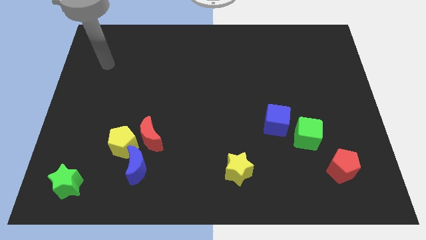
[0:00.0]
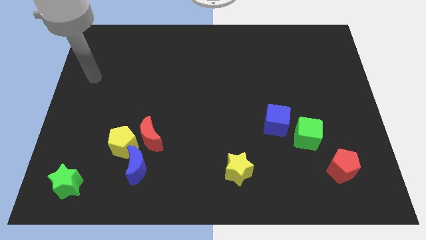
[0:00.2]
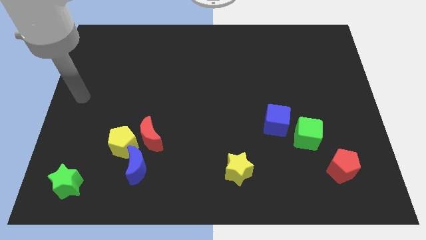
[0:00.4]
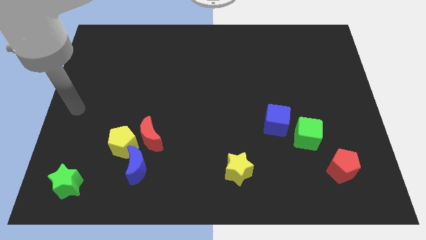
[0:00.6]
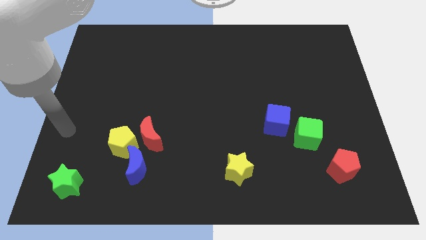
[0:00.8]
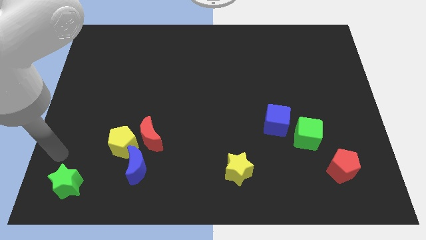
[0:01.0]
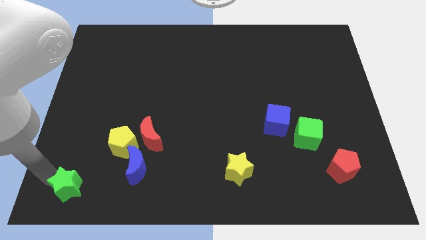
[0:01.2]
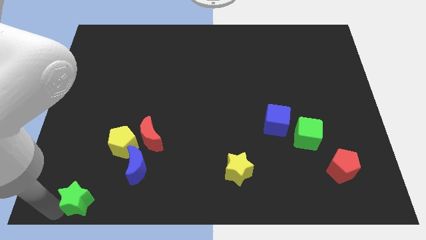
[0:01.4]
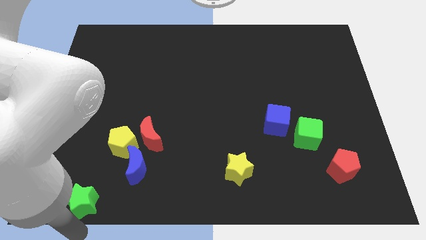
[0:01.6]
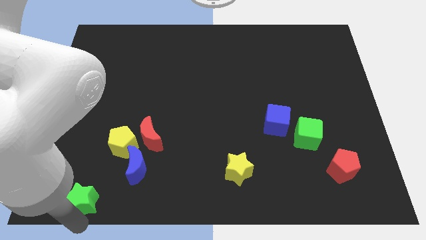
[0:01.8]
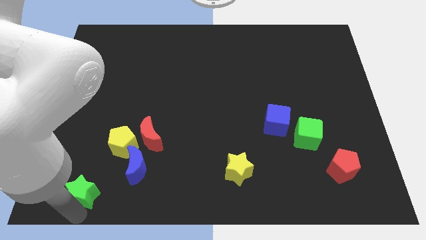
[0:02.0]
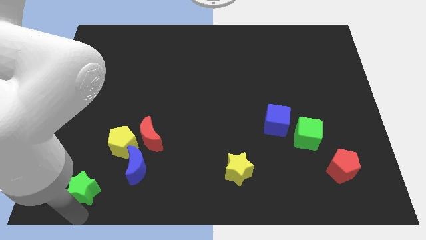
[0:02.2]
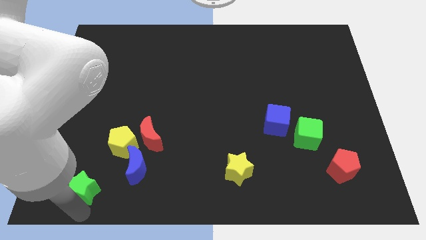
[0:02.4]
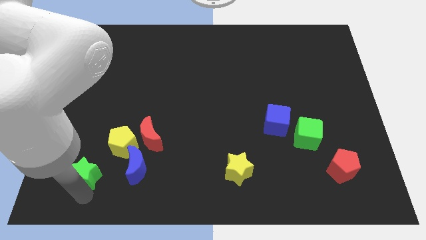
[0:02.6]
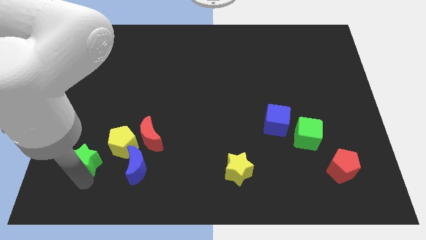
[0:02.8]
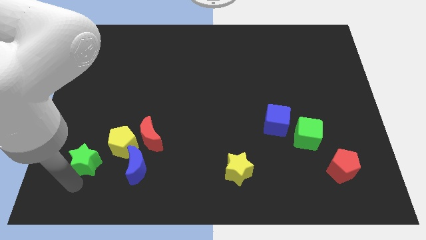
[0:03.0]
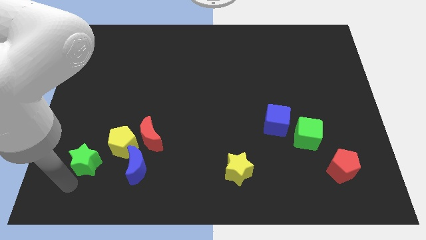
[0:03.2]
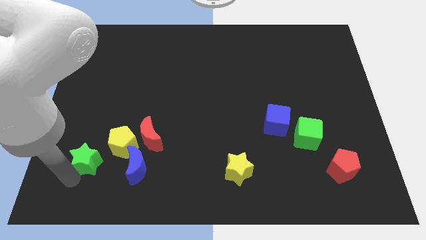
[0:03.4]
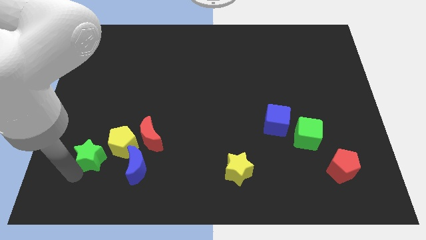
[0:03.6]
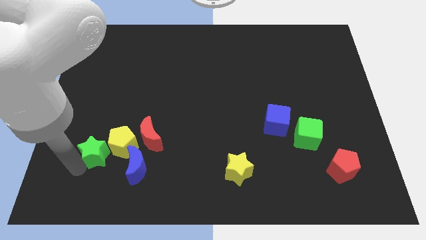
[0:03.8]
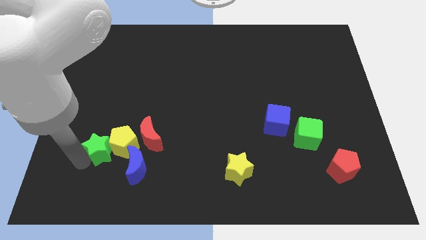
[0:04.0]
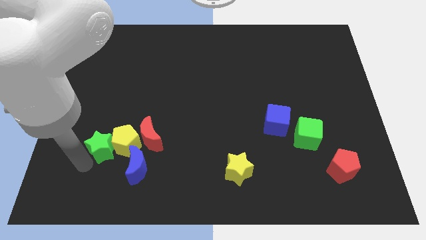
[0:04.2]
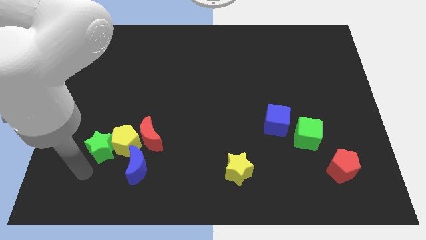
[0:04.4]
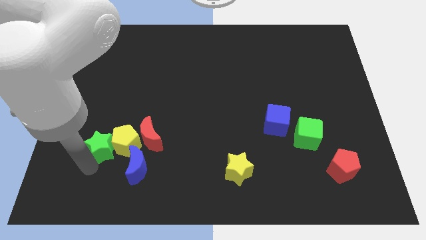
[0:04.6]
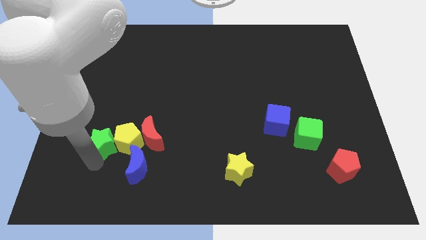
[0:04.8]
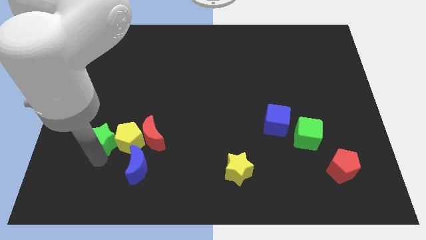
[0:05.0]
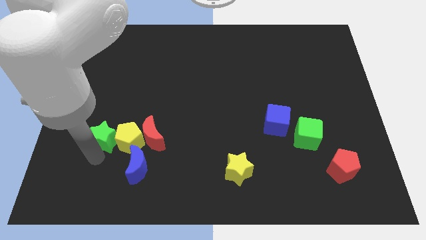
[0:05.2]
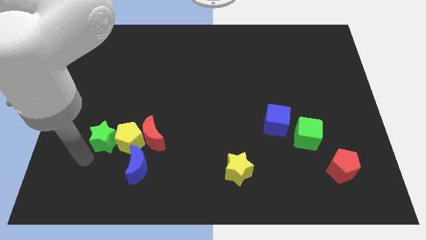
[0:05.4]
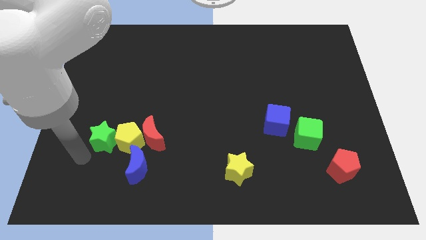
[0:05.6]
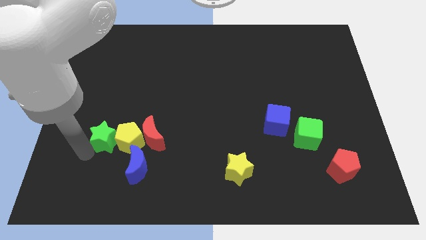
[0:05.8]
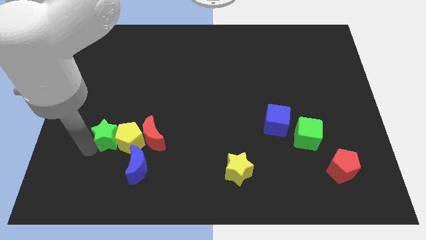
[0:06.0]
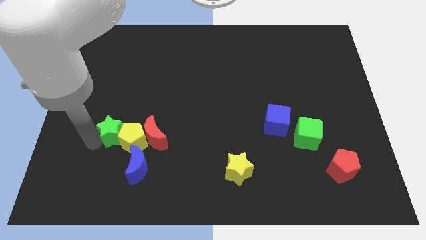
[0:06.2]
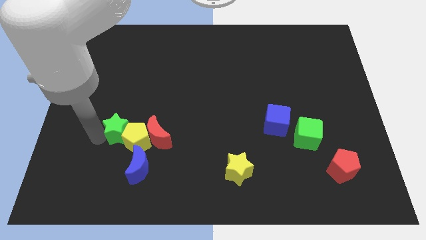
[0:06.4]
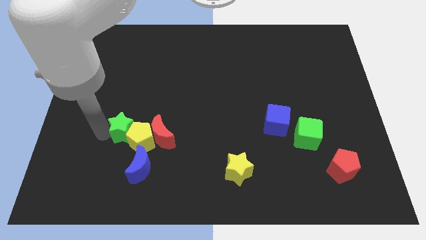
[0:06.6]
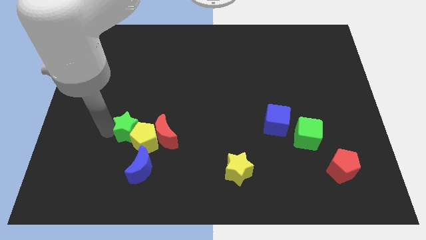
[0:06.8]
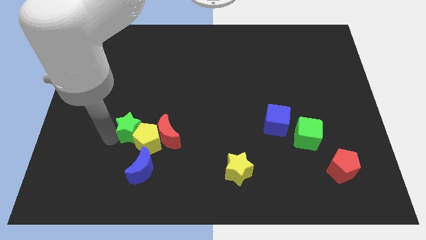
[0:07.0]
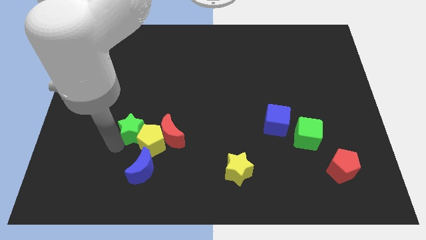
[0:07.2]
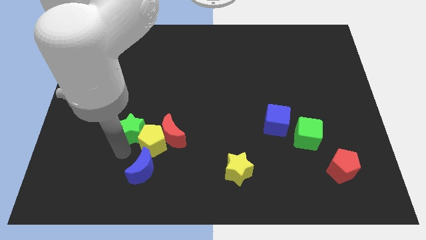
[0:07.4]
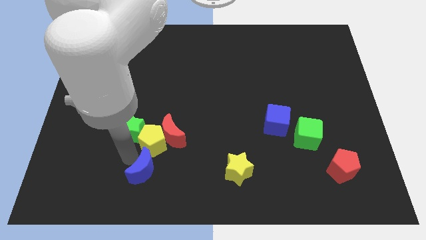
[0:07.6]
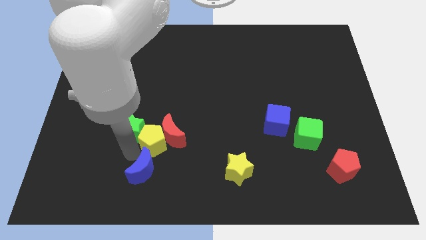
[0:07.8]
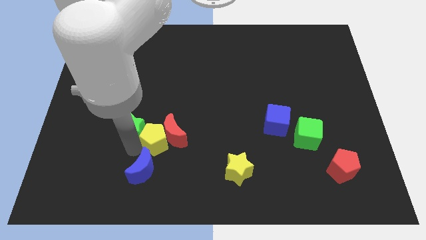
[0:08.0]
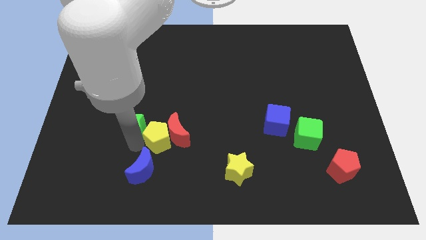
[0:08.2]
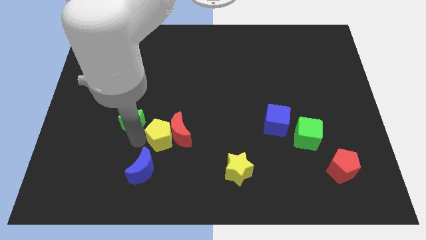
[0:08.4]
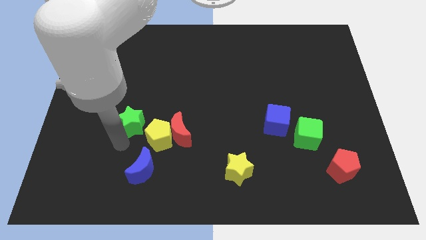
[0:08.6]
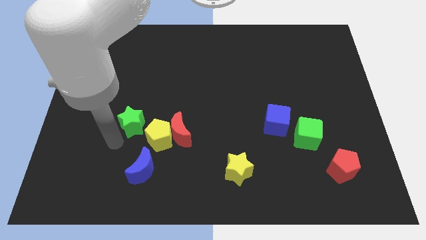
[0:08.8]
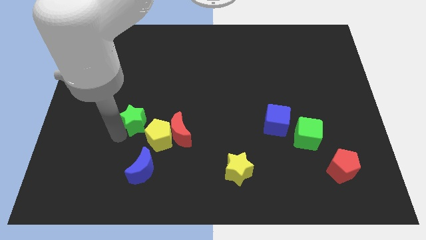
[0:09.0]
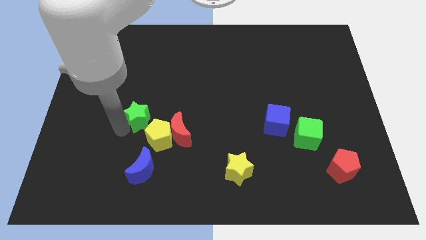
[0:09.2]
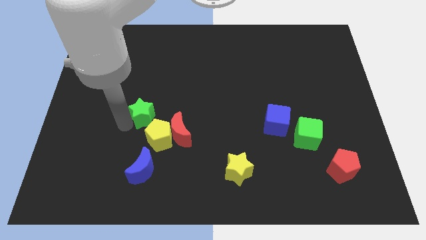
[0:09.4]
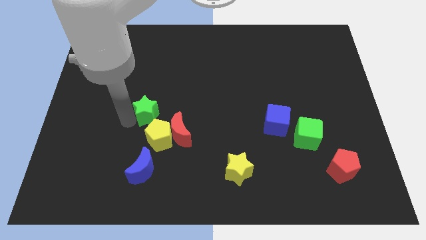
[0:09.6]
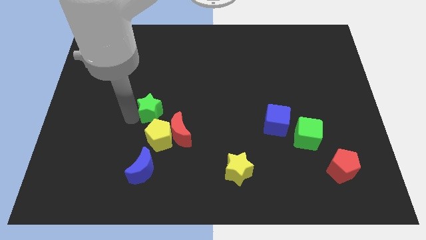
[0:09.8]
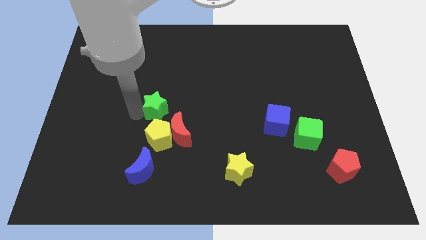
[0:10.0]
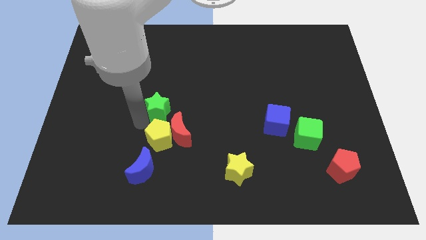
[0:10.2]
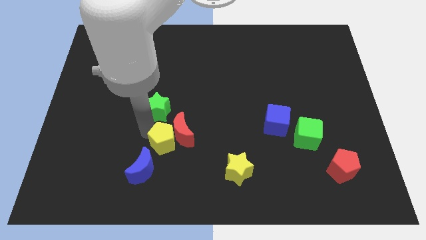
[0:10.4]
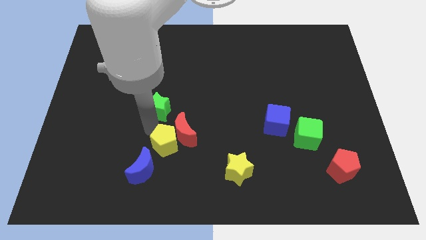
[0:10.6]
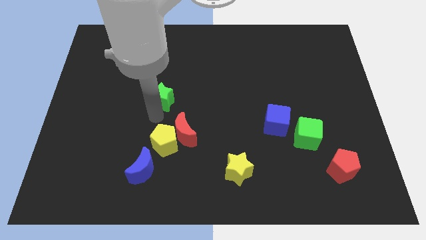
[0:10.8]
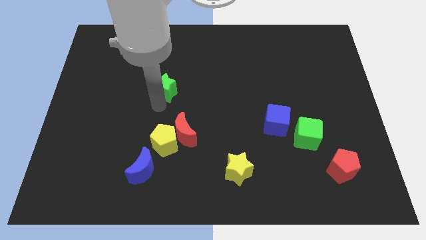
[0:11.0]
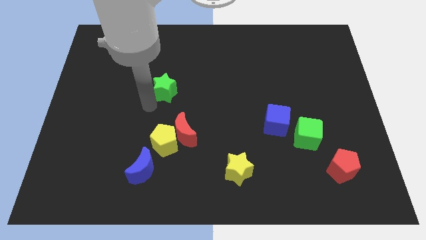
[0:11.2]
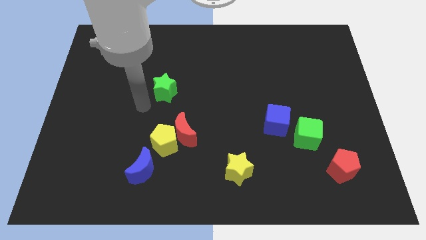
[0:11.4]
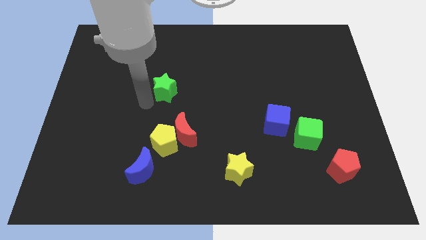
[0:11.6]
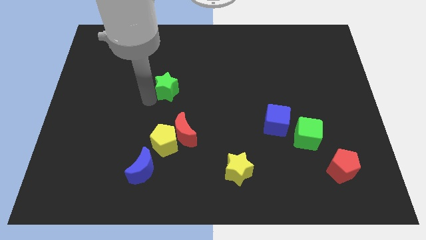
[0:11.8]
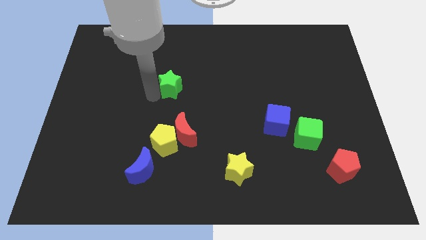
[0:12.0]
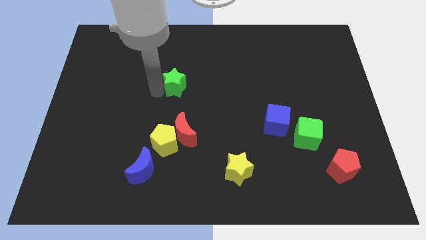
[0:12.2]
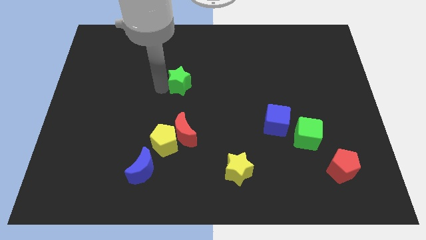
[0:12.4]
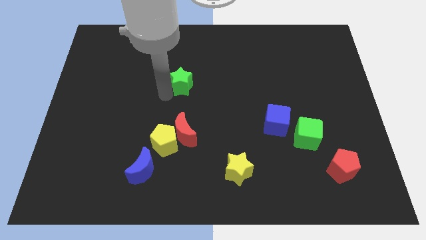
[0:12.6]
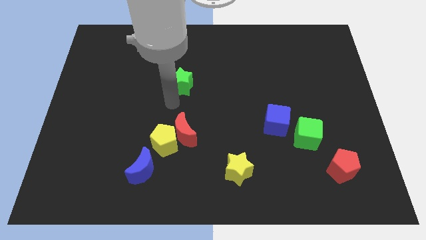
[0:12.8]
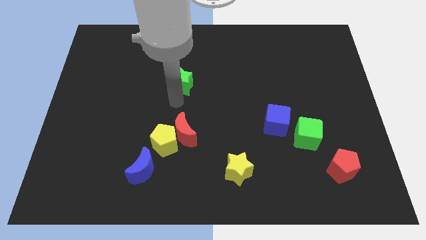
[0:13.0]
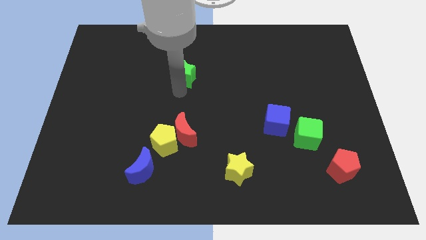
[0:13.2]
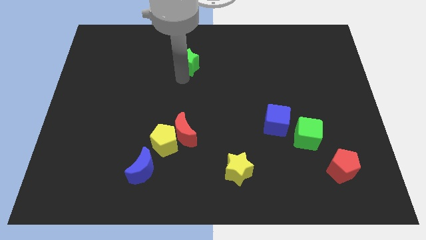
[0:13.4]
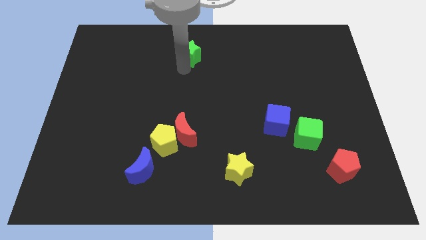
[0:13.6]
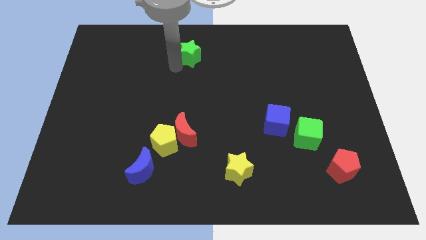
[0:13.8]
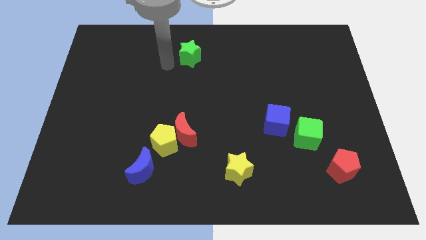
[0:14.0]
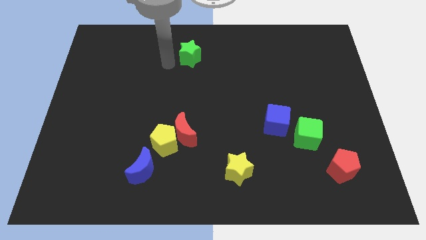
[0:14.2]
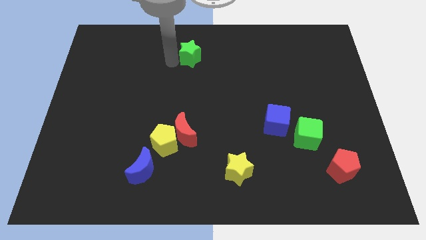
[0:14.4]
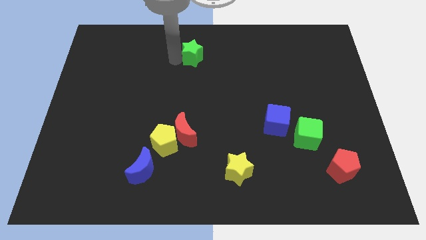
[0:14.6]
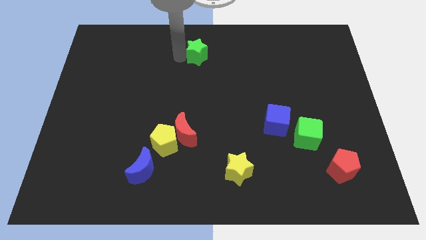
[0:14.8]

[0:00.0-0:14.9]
put the green star to the towards your base
